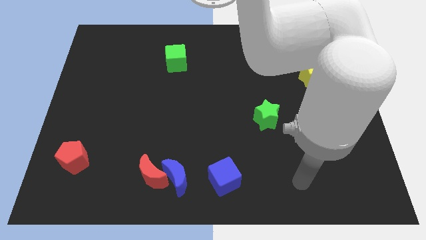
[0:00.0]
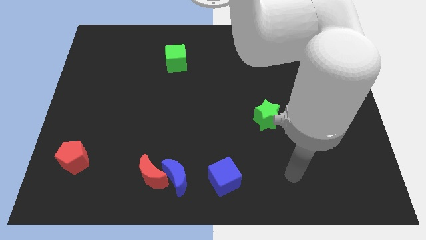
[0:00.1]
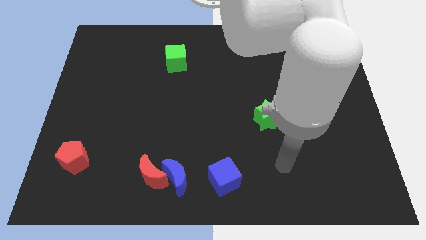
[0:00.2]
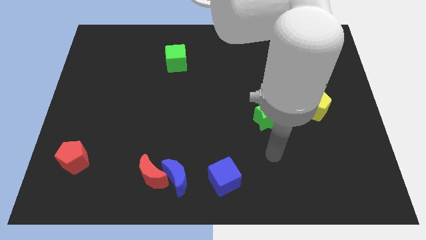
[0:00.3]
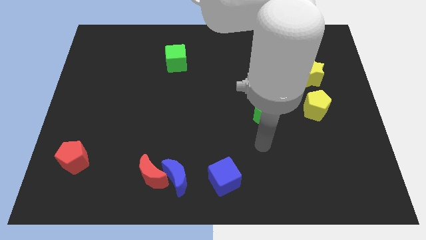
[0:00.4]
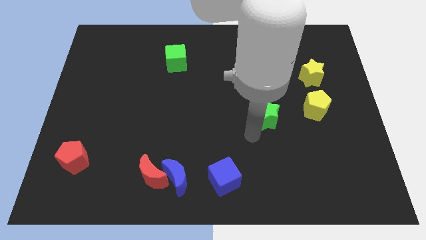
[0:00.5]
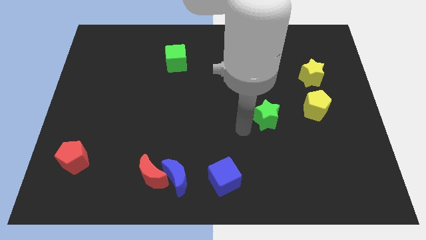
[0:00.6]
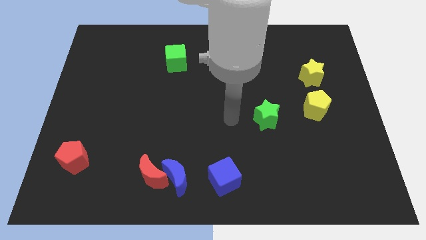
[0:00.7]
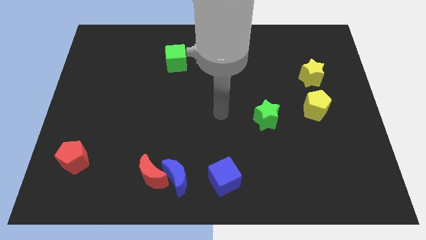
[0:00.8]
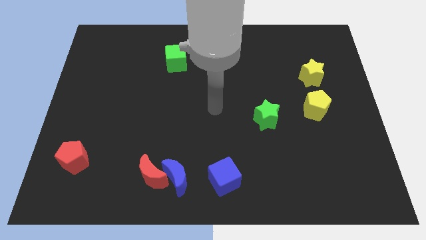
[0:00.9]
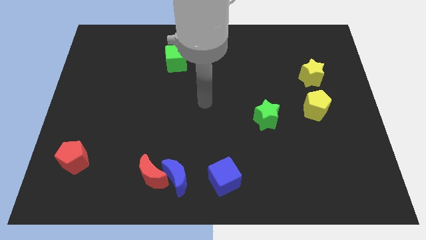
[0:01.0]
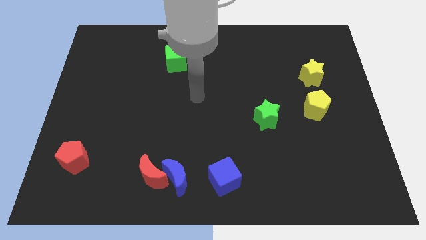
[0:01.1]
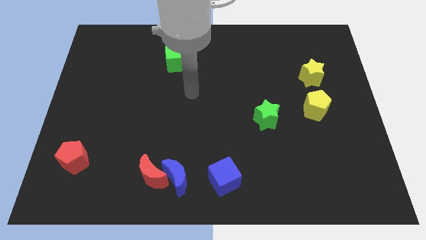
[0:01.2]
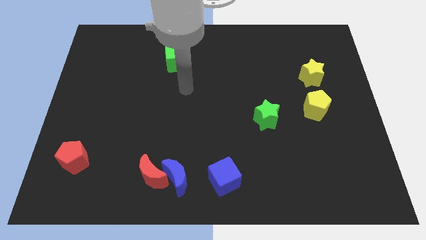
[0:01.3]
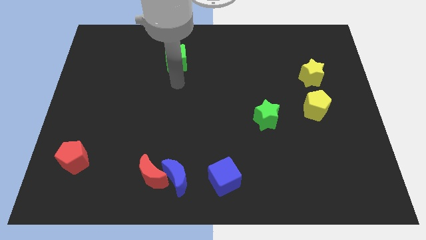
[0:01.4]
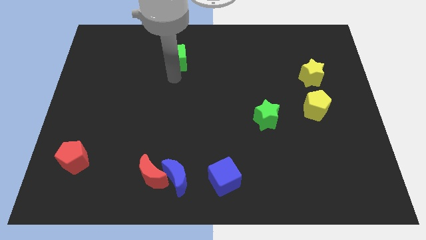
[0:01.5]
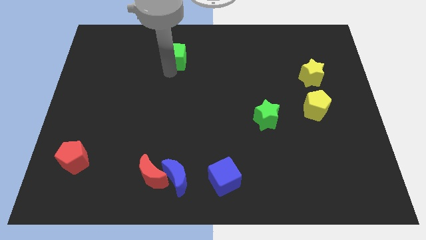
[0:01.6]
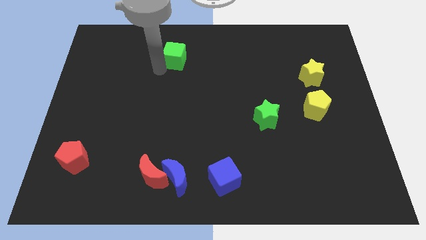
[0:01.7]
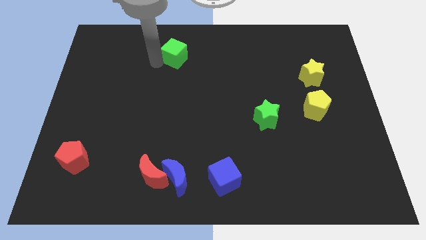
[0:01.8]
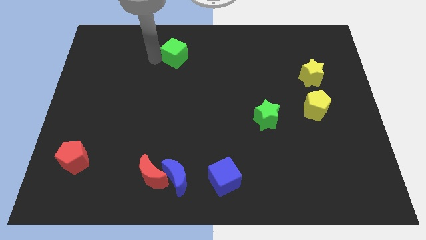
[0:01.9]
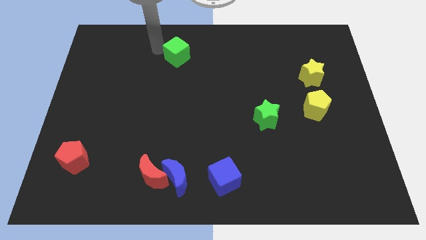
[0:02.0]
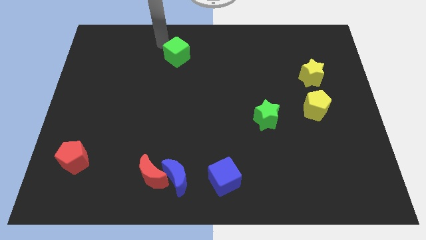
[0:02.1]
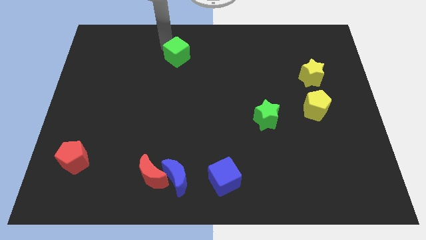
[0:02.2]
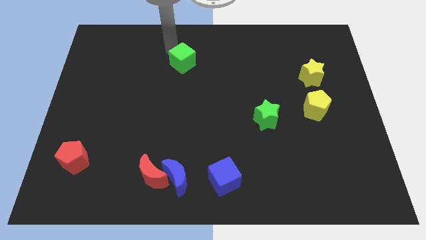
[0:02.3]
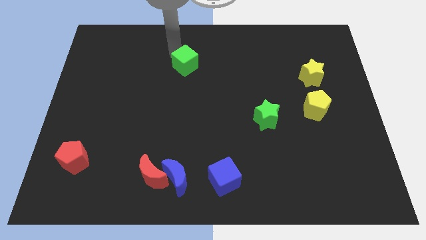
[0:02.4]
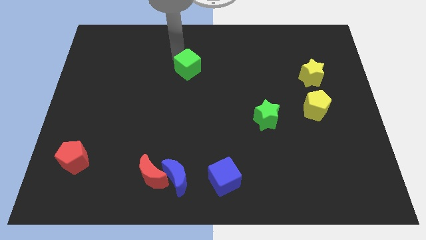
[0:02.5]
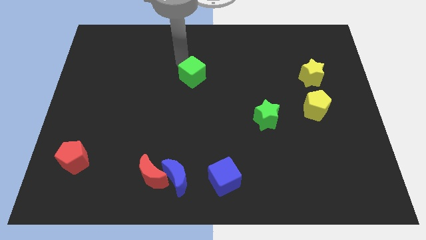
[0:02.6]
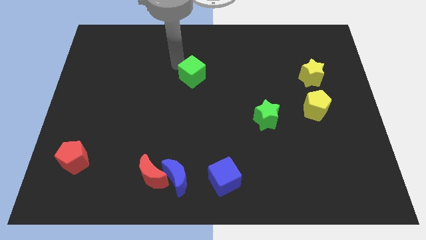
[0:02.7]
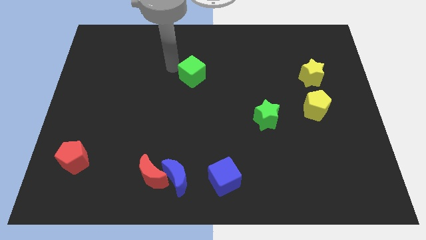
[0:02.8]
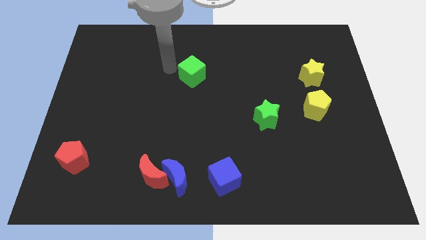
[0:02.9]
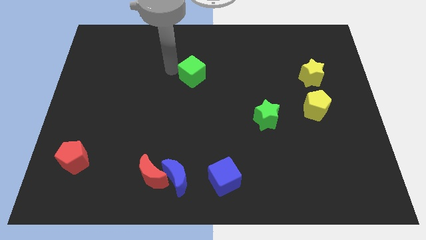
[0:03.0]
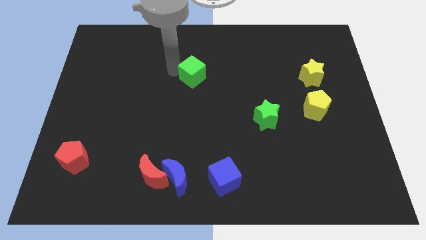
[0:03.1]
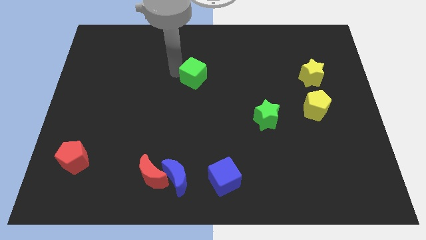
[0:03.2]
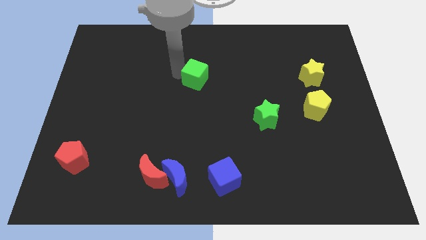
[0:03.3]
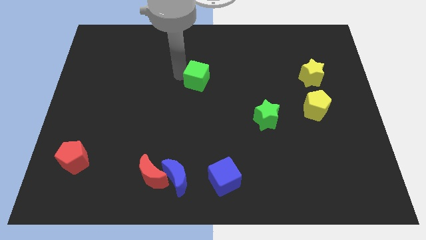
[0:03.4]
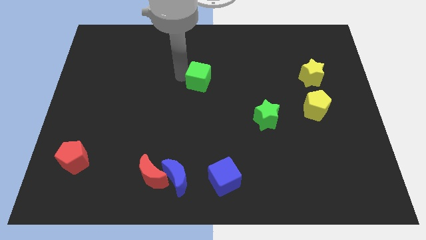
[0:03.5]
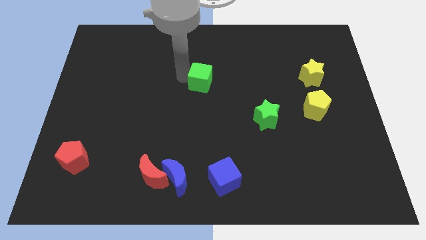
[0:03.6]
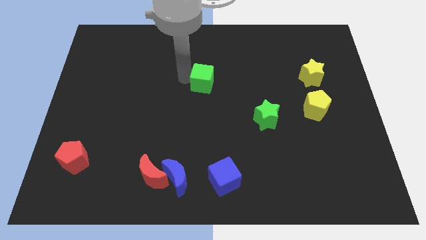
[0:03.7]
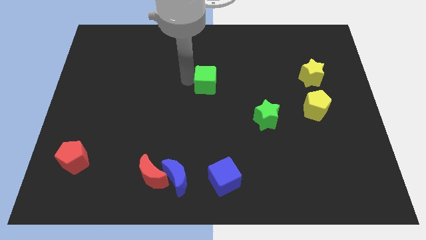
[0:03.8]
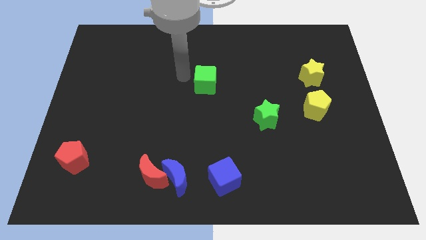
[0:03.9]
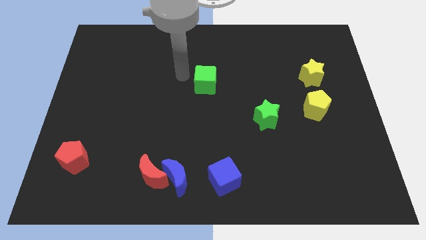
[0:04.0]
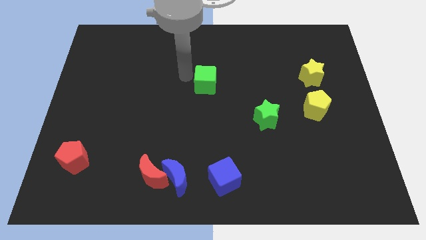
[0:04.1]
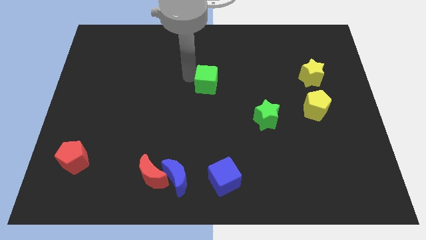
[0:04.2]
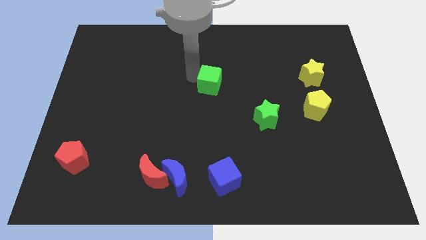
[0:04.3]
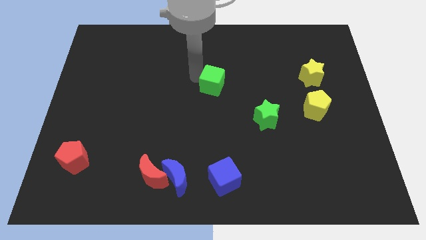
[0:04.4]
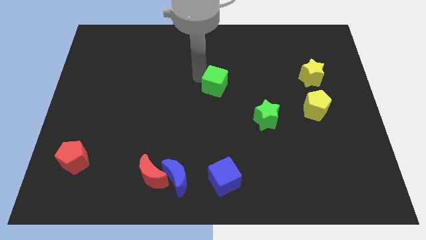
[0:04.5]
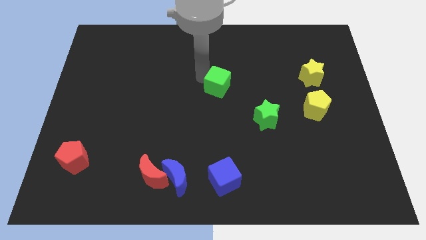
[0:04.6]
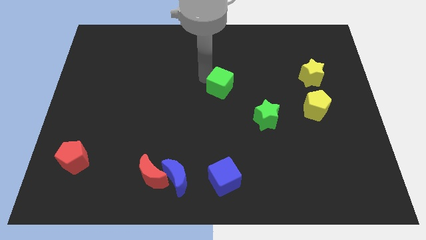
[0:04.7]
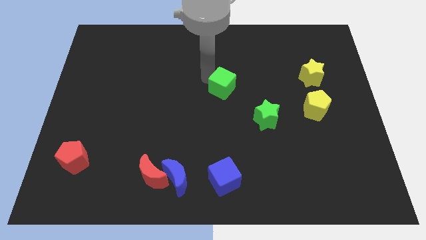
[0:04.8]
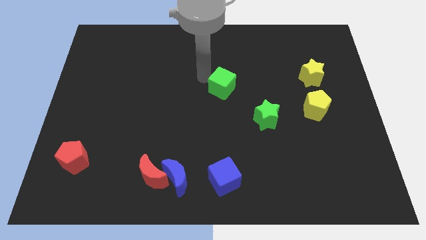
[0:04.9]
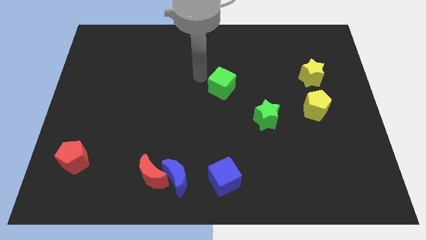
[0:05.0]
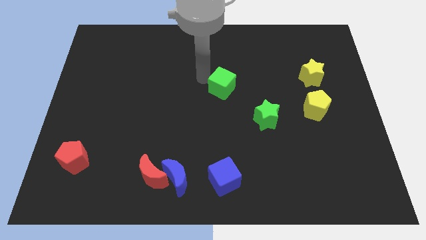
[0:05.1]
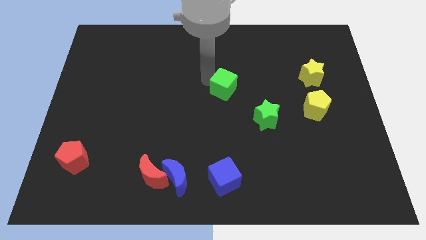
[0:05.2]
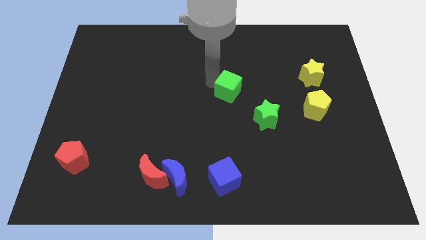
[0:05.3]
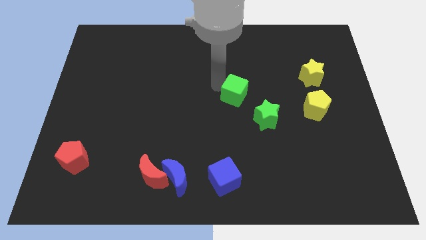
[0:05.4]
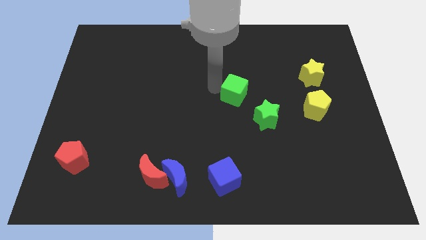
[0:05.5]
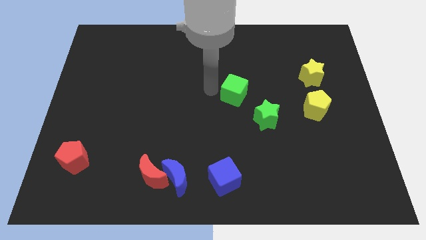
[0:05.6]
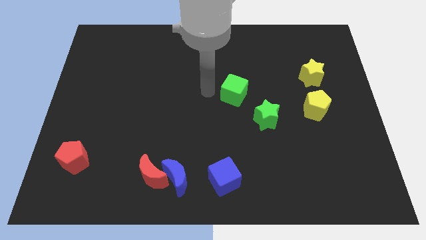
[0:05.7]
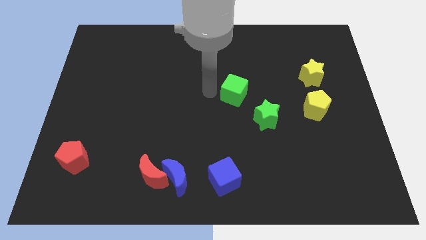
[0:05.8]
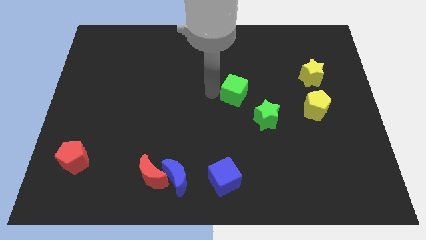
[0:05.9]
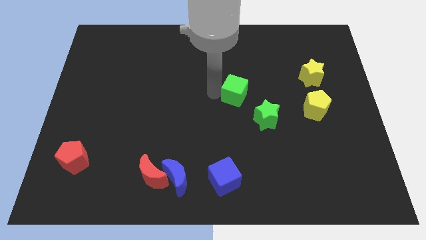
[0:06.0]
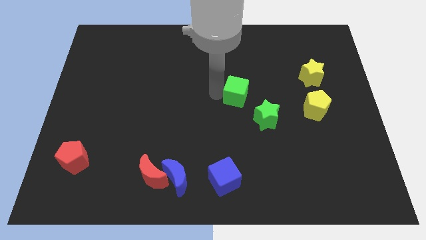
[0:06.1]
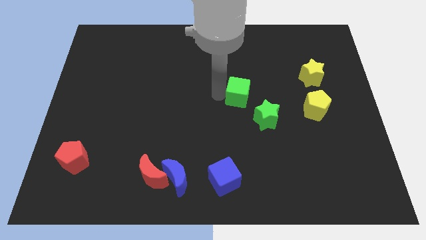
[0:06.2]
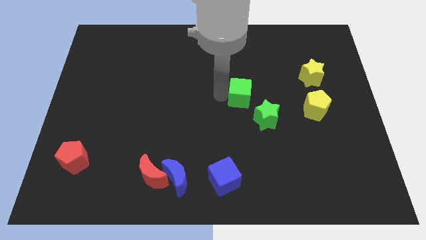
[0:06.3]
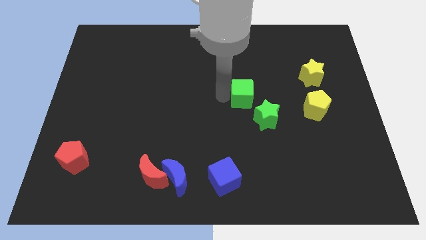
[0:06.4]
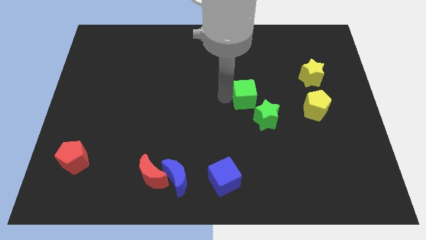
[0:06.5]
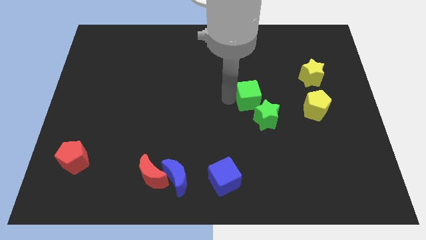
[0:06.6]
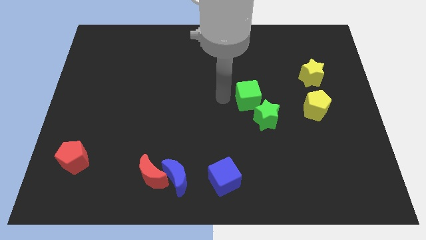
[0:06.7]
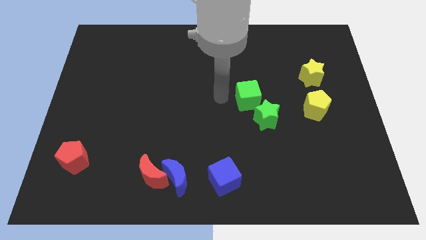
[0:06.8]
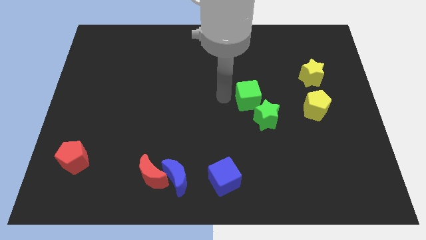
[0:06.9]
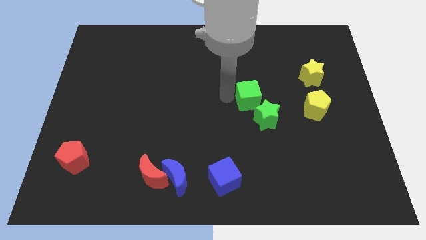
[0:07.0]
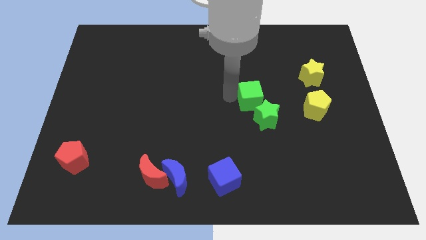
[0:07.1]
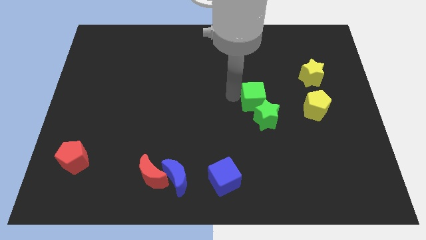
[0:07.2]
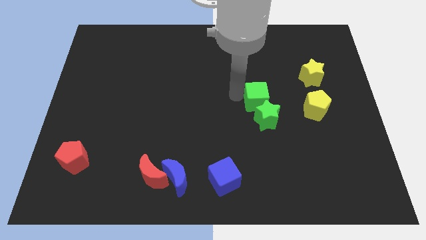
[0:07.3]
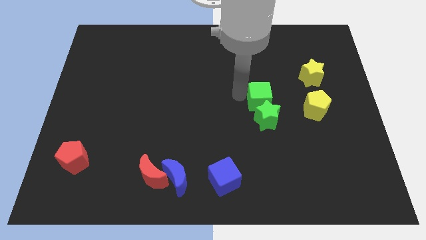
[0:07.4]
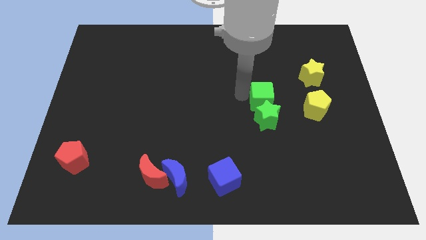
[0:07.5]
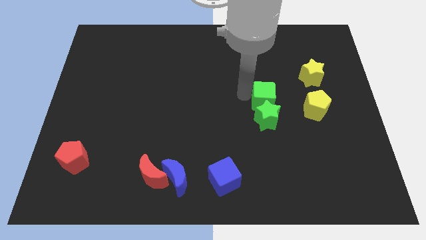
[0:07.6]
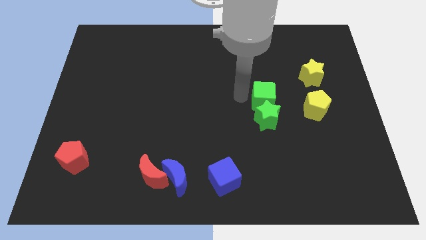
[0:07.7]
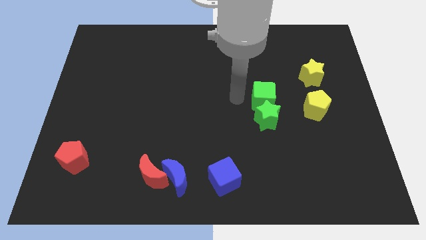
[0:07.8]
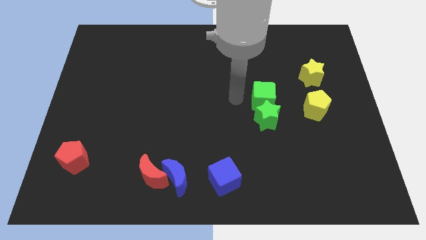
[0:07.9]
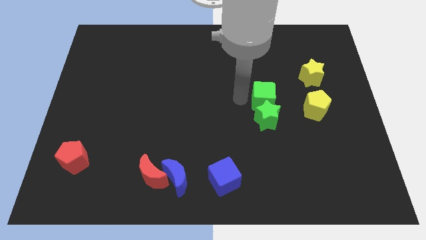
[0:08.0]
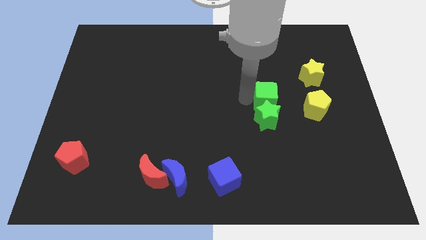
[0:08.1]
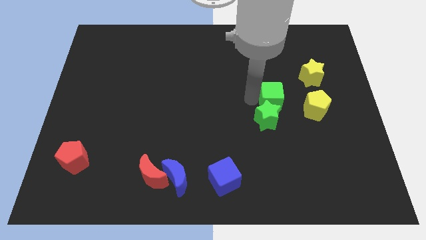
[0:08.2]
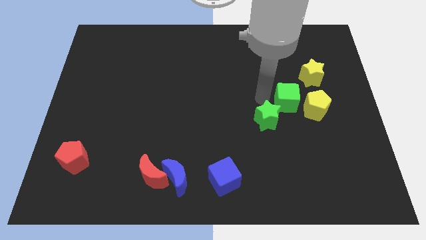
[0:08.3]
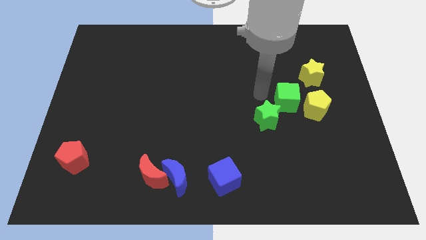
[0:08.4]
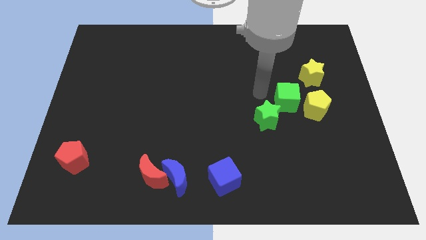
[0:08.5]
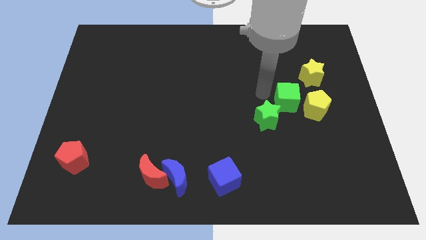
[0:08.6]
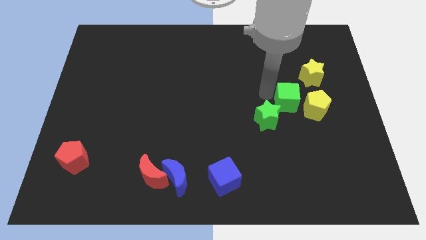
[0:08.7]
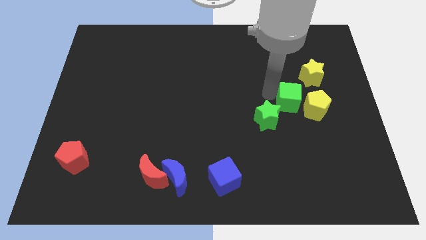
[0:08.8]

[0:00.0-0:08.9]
put the green cube towards the yellow pentagon
